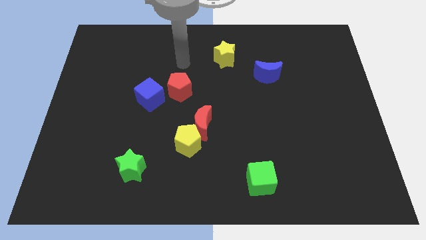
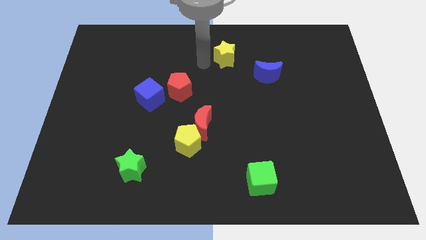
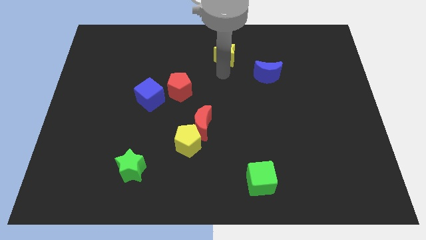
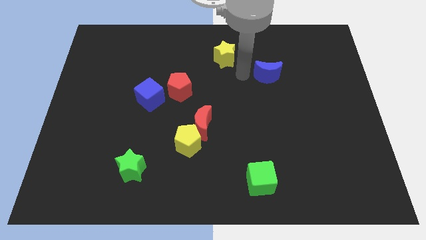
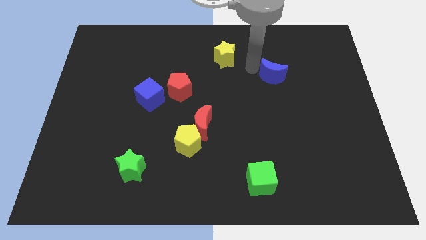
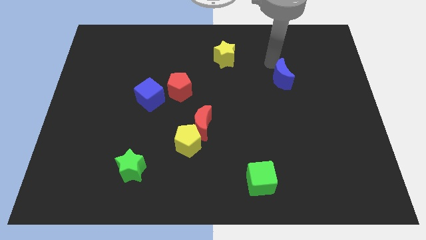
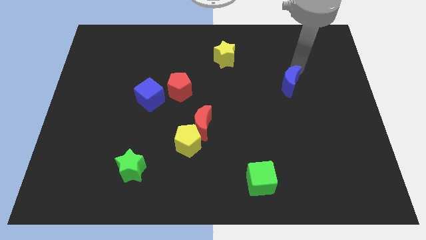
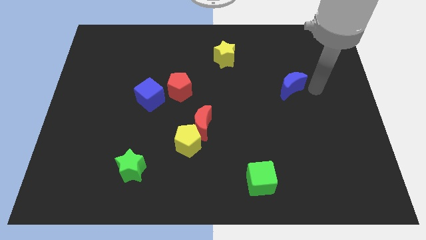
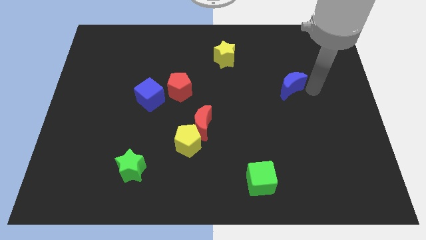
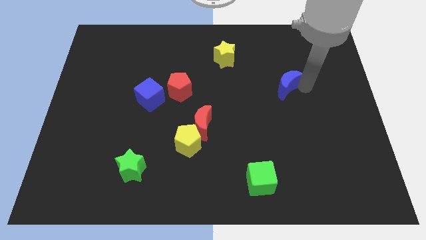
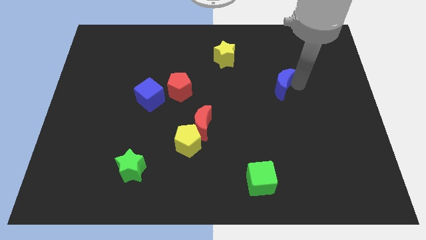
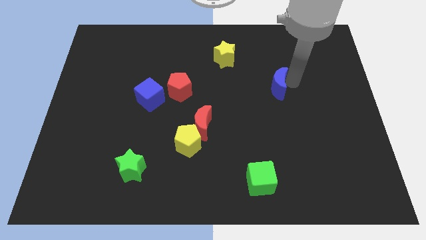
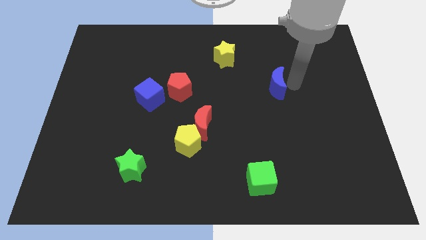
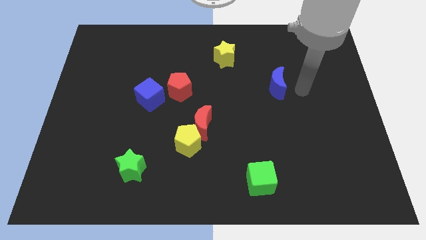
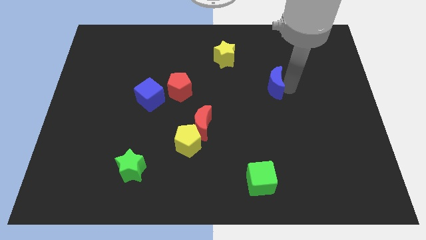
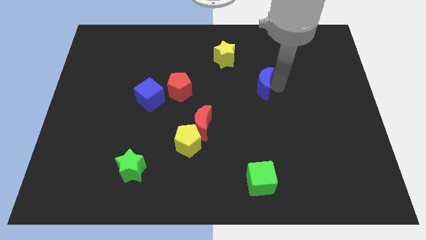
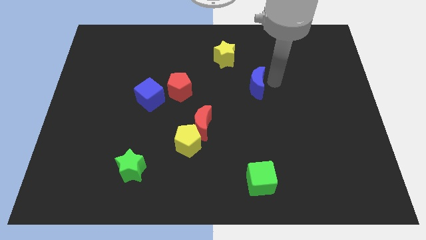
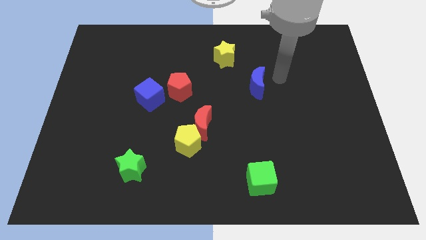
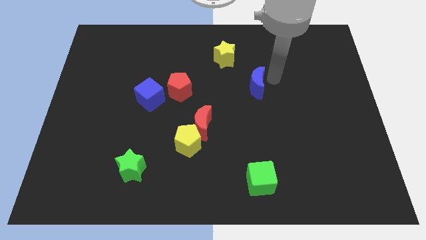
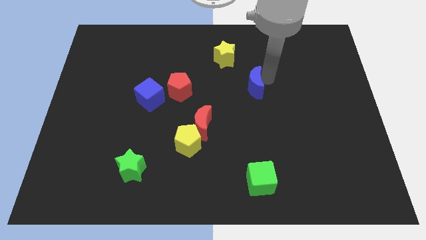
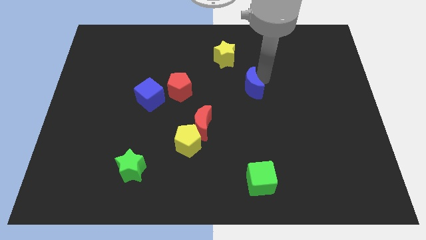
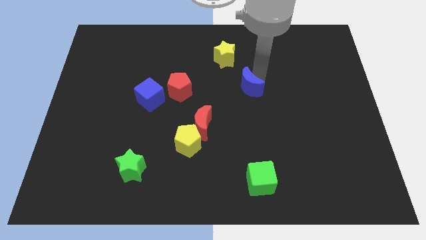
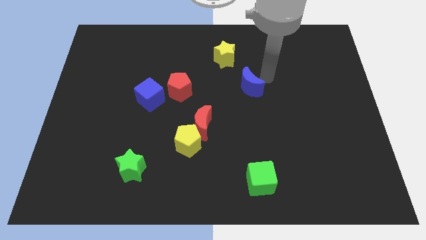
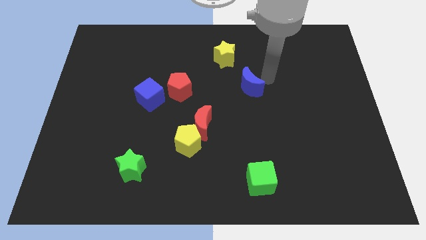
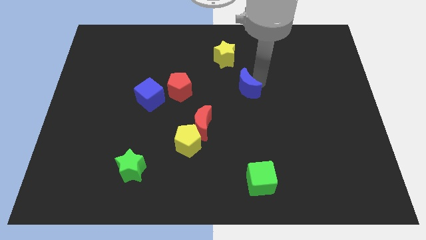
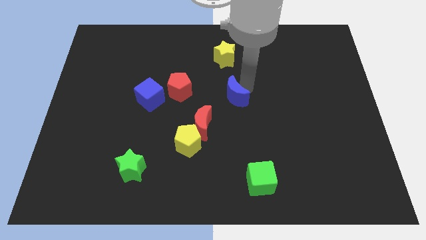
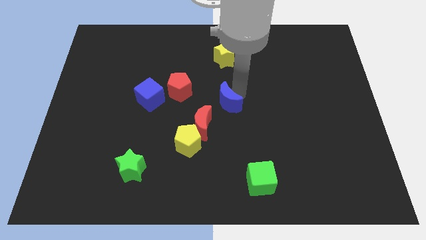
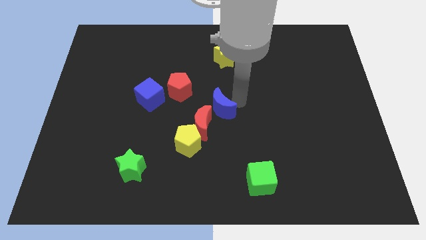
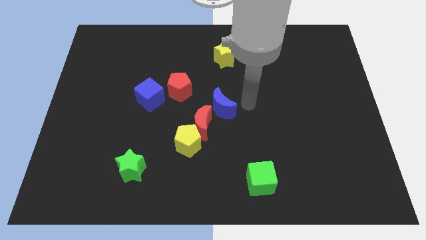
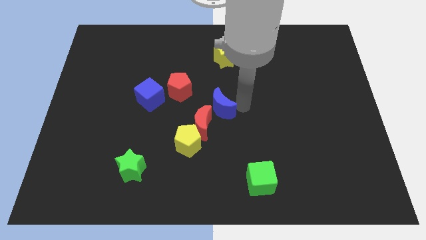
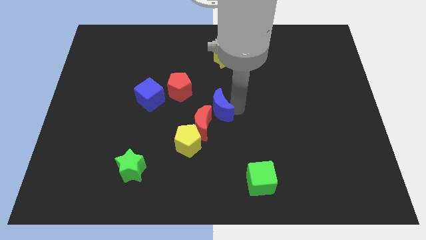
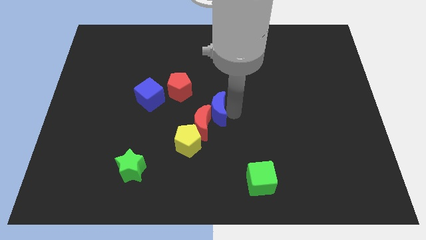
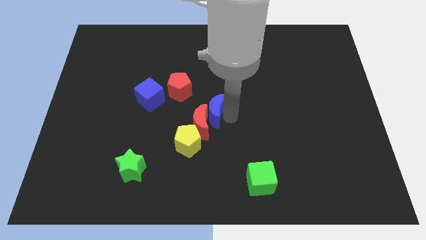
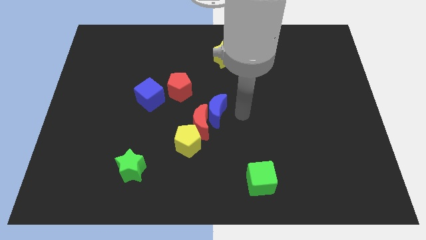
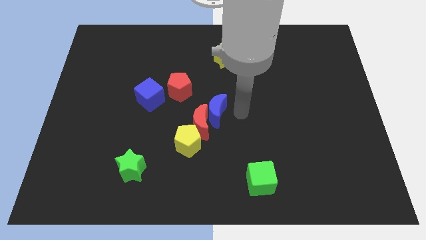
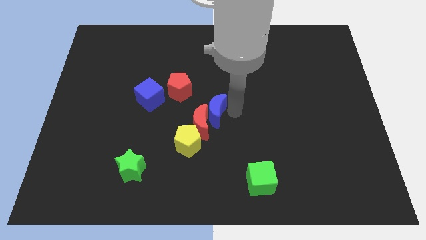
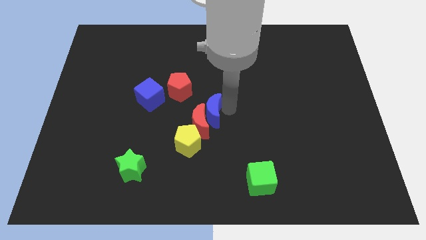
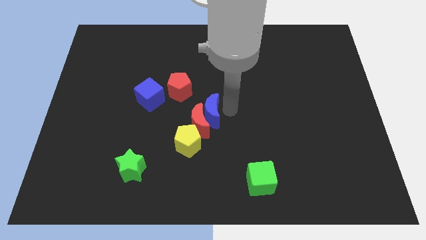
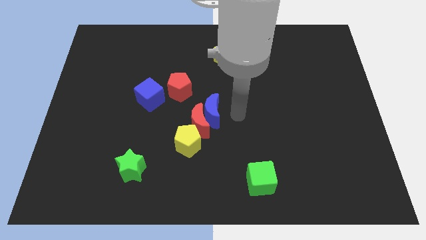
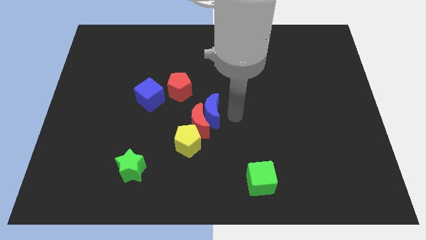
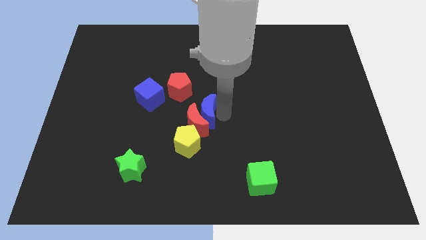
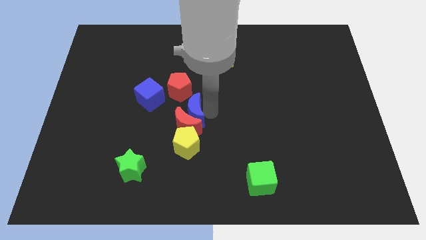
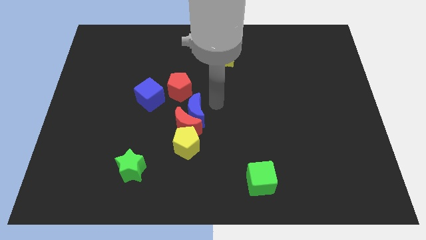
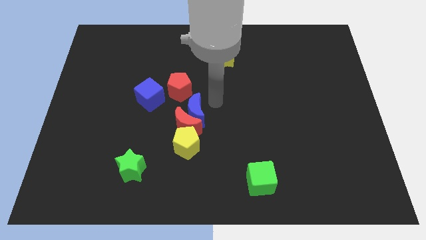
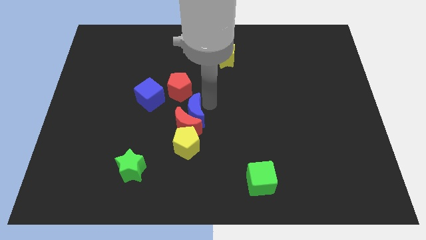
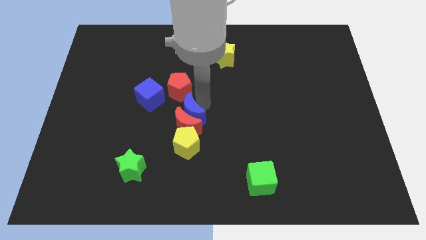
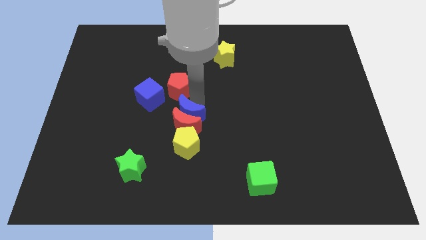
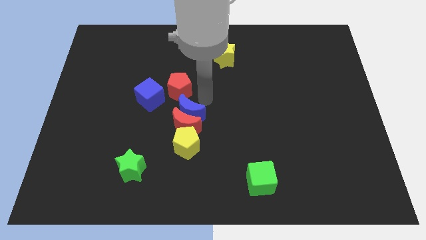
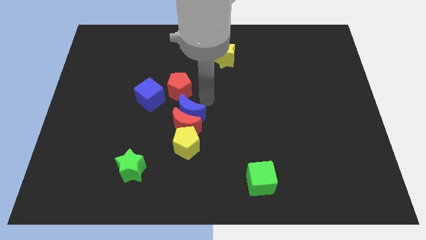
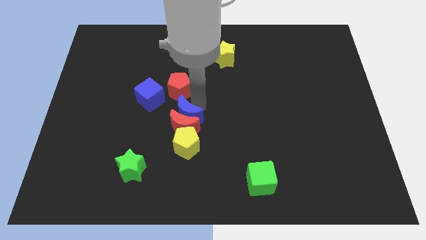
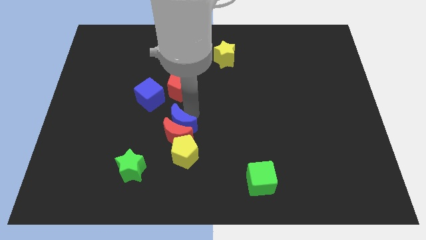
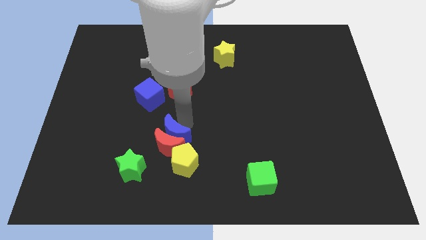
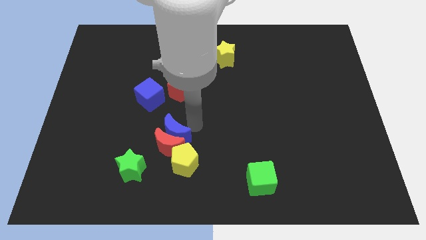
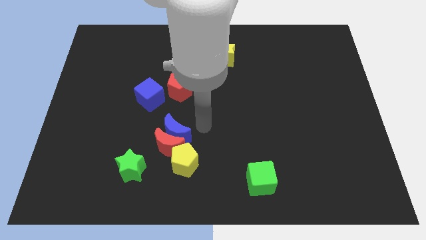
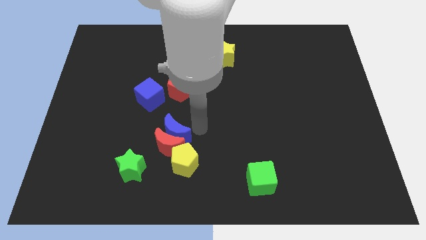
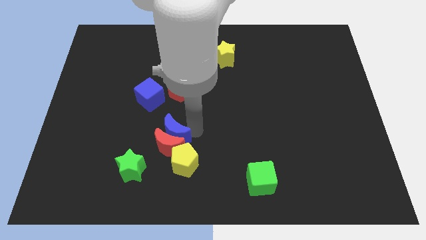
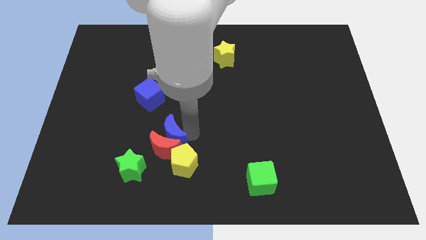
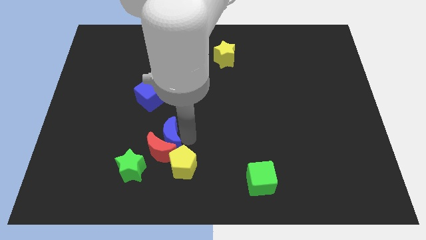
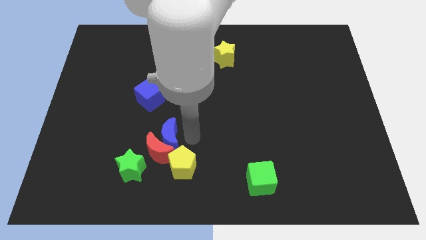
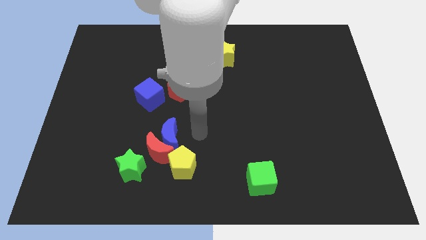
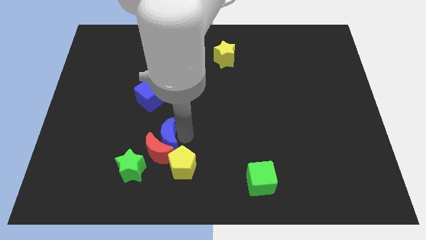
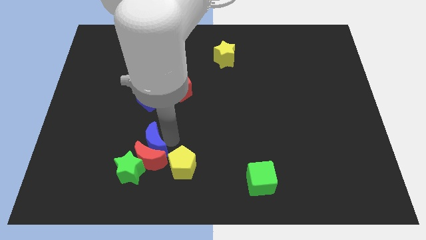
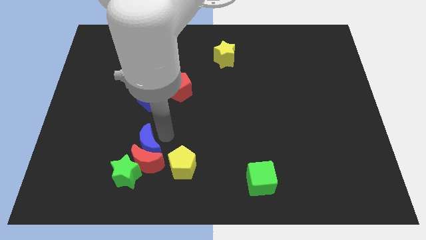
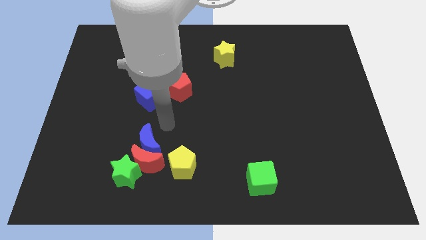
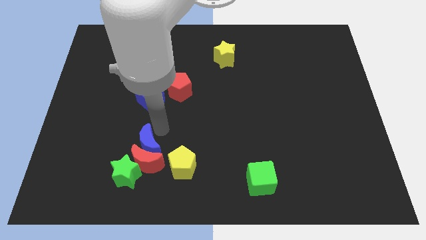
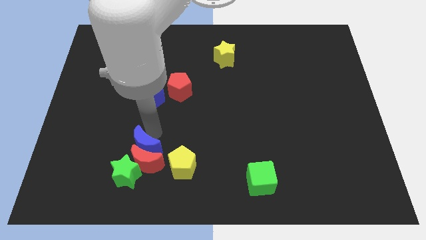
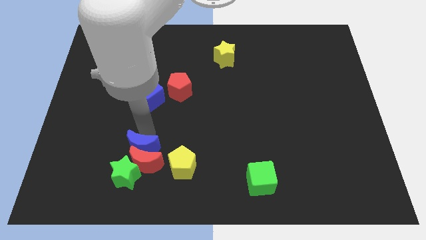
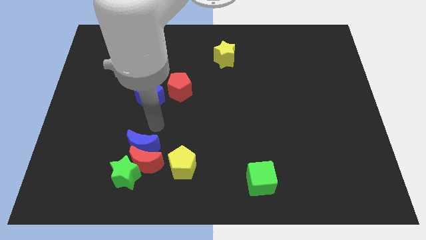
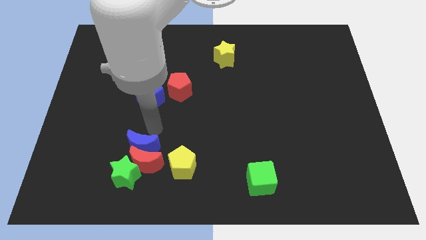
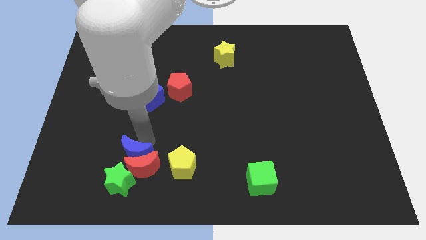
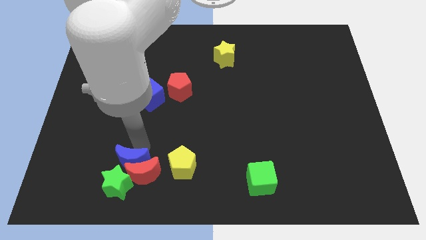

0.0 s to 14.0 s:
push the blue moon towards the green star

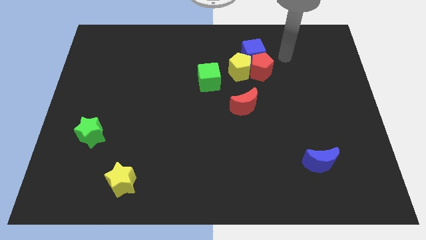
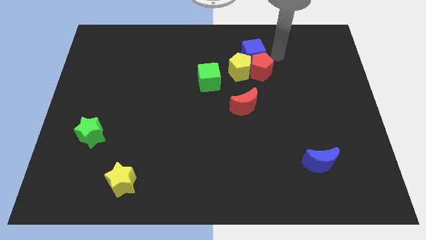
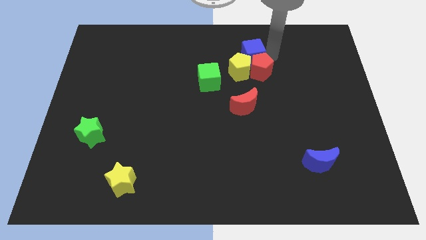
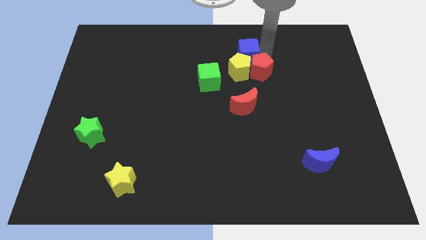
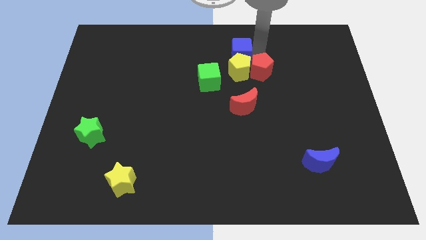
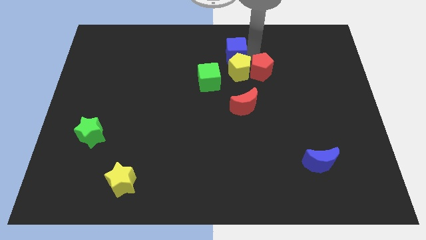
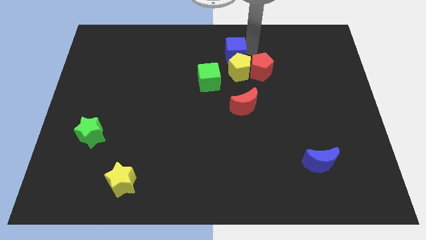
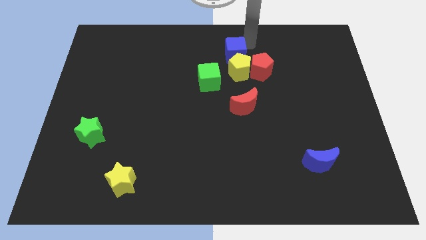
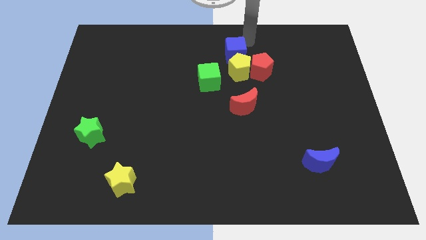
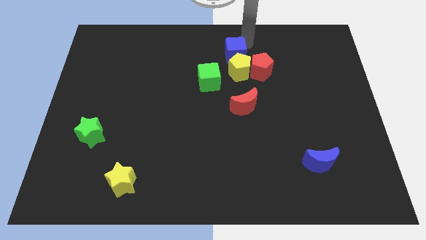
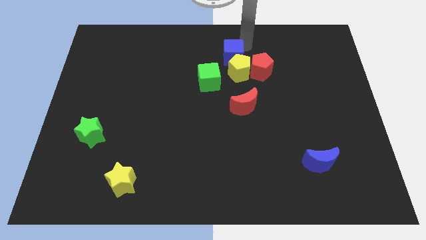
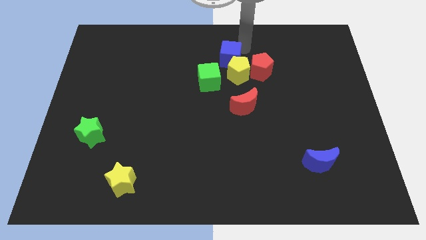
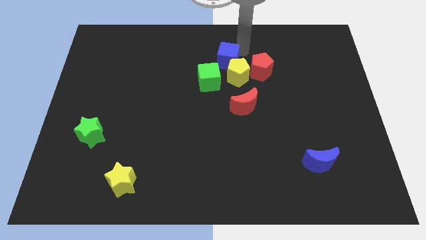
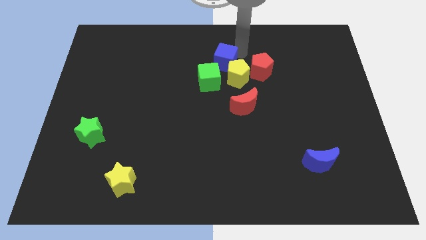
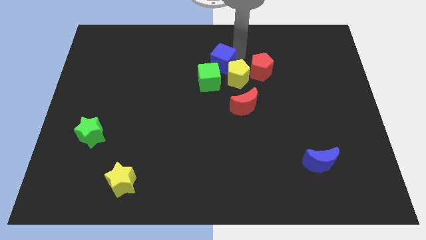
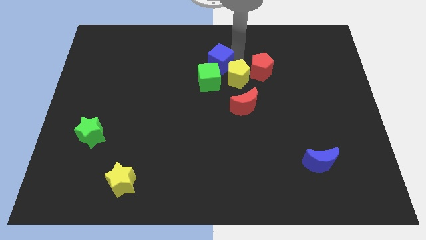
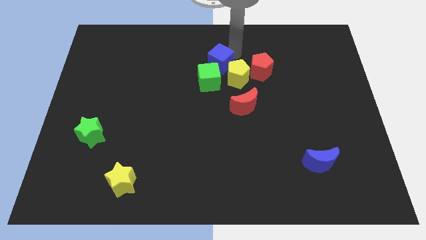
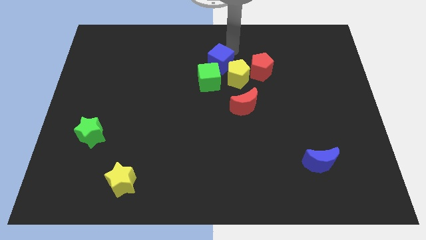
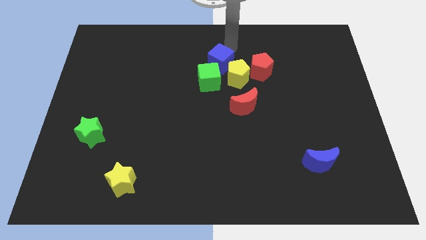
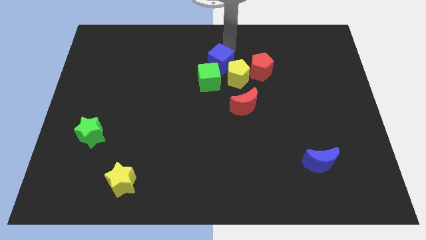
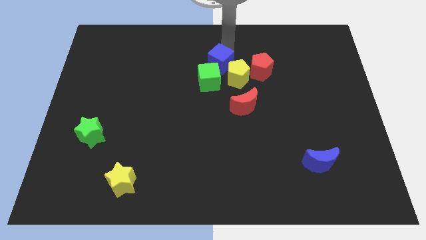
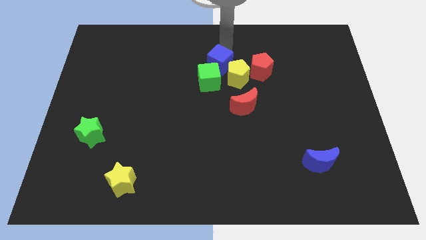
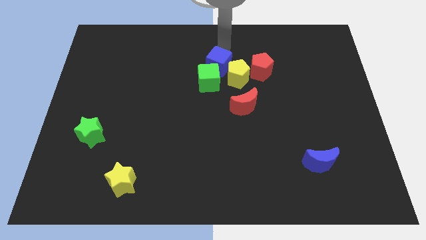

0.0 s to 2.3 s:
slide the blue cube to the green cube
